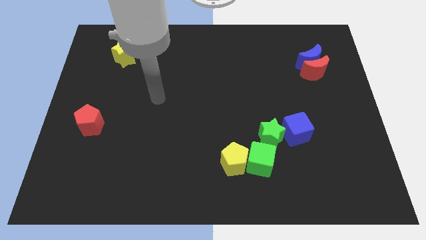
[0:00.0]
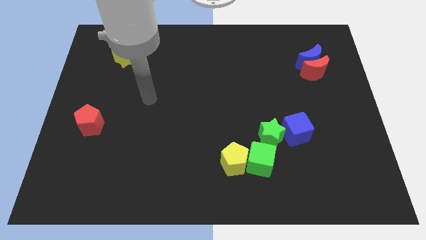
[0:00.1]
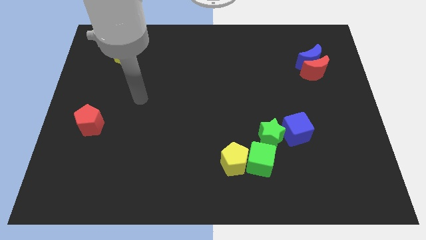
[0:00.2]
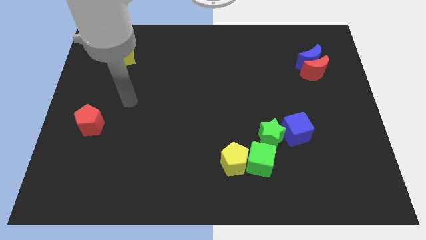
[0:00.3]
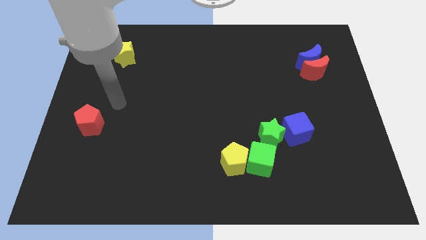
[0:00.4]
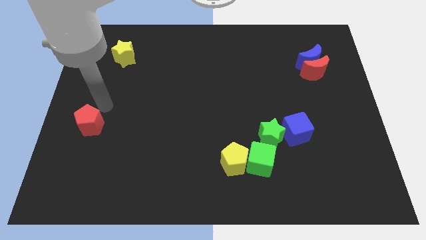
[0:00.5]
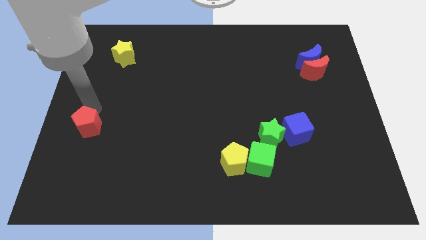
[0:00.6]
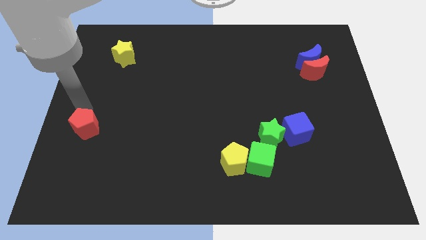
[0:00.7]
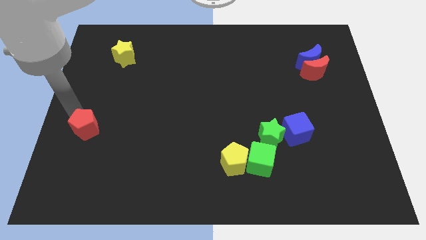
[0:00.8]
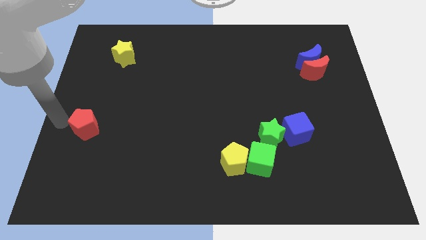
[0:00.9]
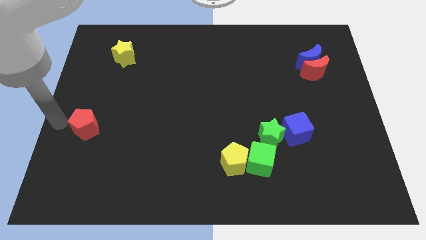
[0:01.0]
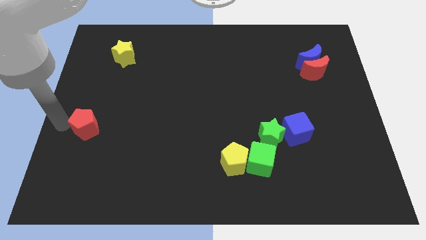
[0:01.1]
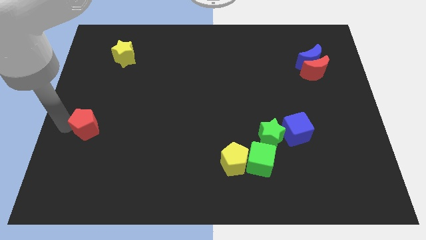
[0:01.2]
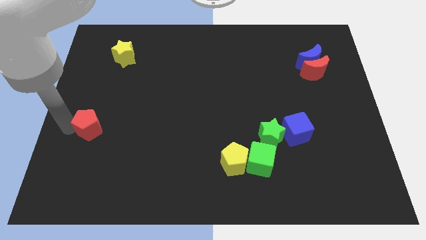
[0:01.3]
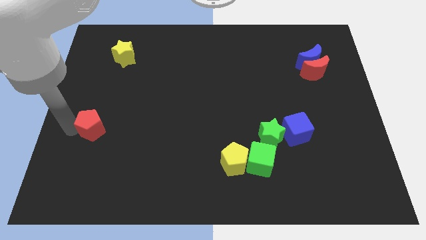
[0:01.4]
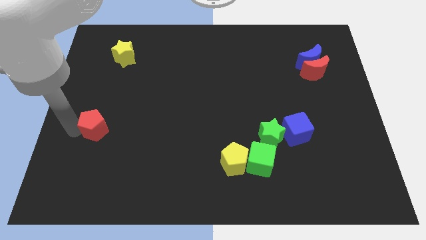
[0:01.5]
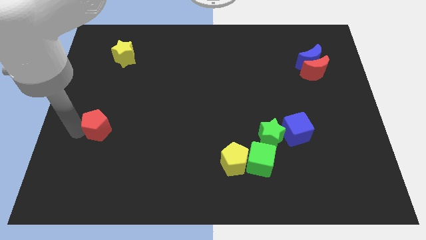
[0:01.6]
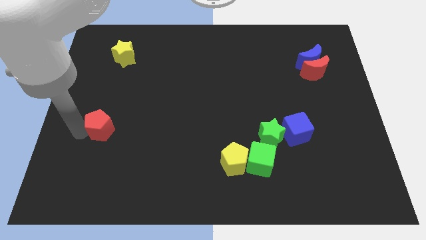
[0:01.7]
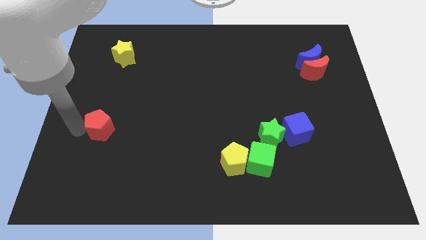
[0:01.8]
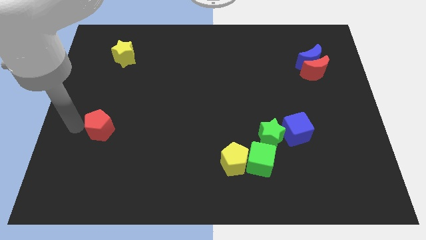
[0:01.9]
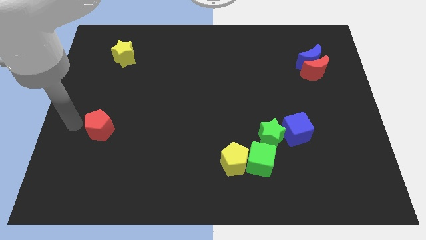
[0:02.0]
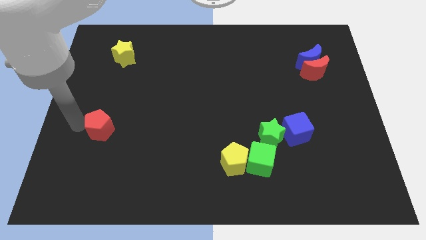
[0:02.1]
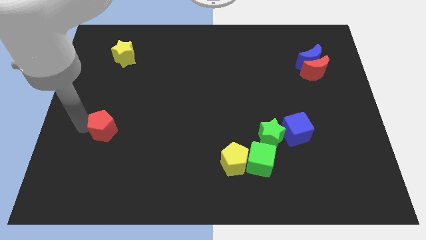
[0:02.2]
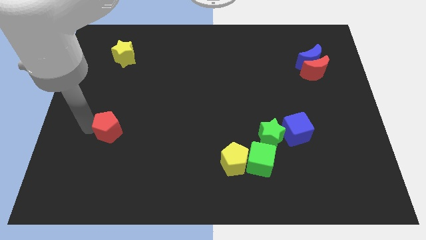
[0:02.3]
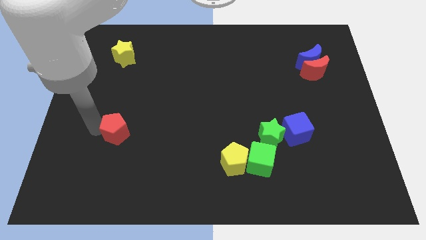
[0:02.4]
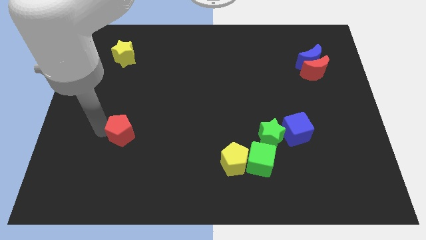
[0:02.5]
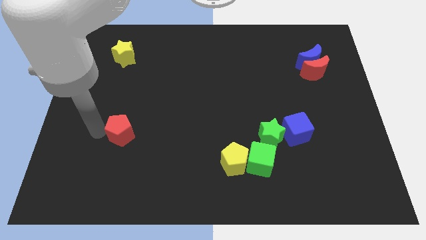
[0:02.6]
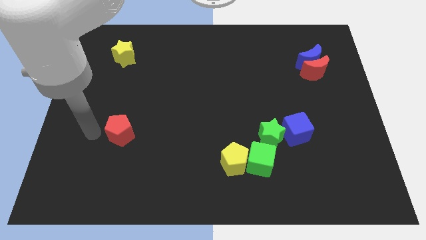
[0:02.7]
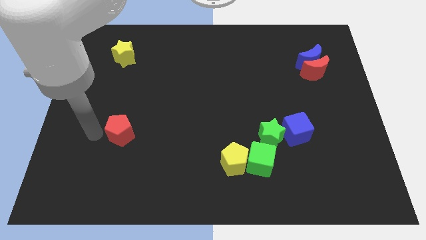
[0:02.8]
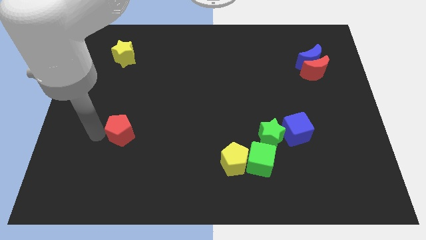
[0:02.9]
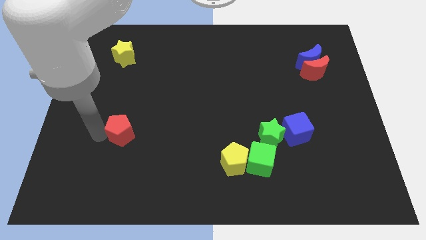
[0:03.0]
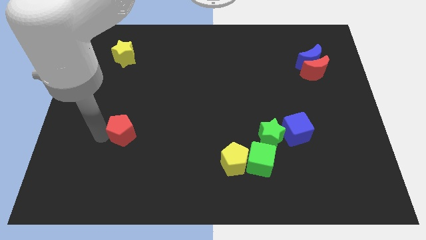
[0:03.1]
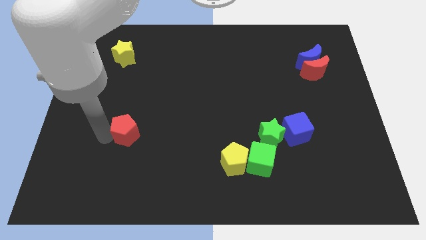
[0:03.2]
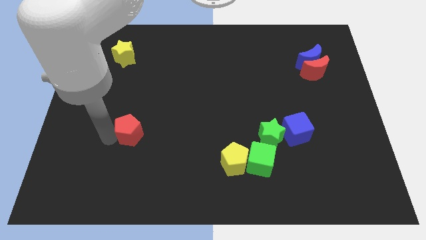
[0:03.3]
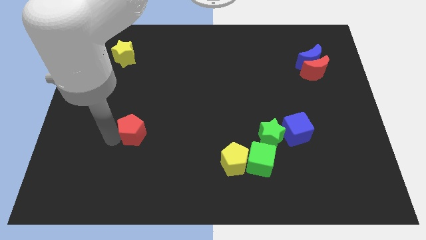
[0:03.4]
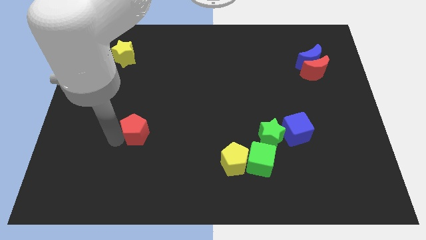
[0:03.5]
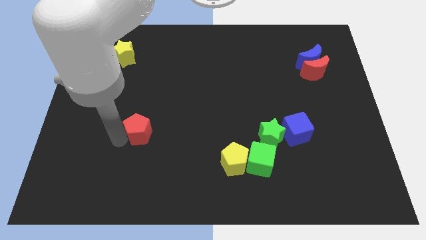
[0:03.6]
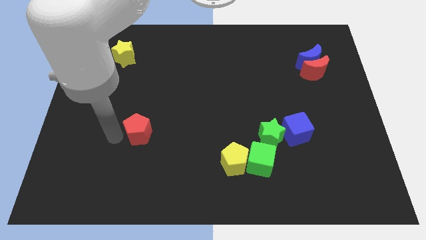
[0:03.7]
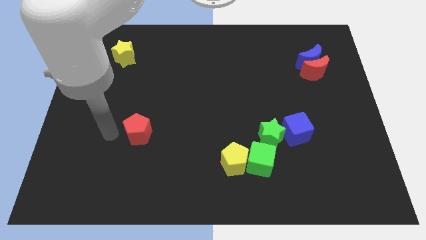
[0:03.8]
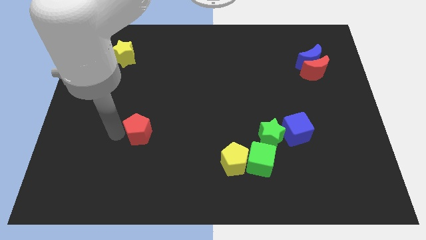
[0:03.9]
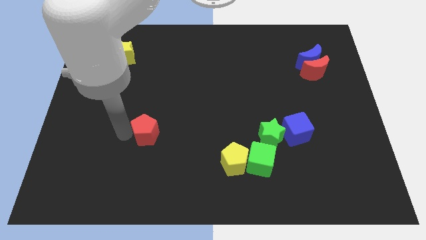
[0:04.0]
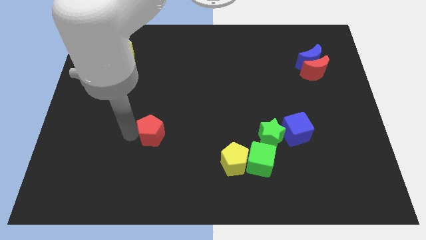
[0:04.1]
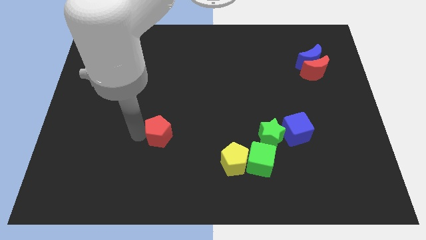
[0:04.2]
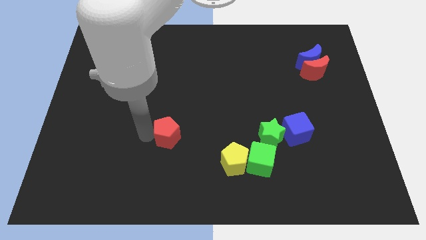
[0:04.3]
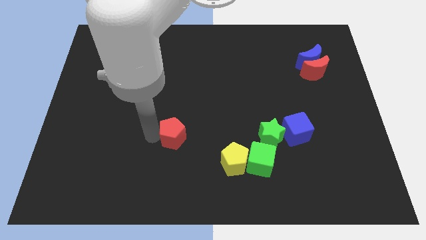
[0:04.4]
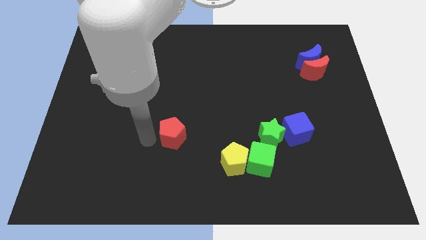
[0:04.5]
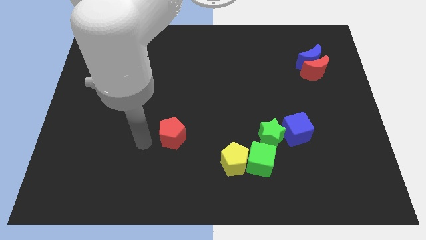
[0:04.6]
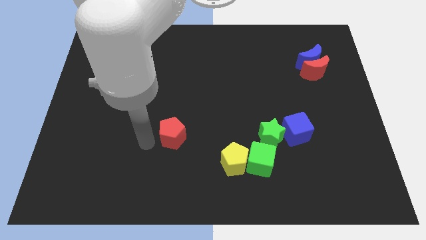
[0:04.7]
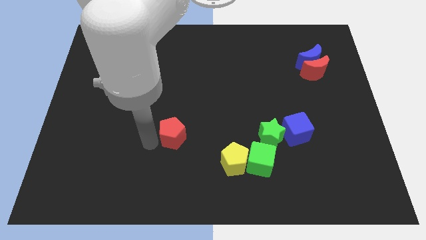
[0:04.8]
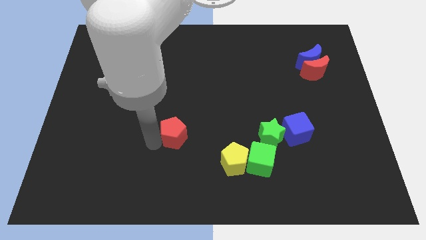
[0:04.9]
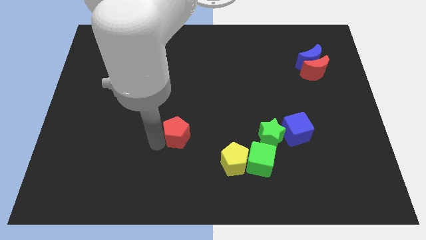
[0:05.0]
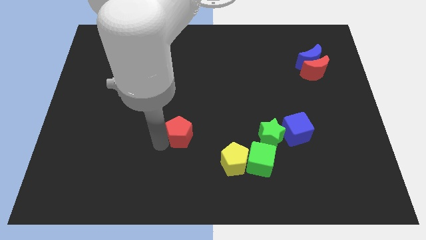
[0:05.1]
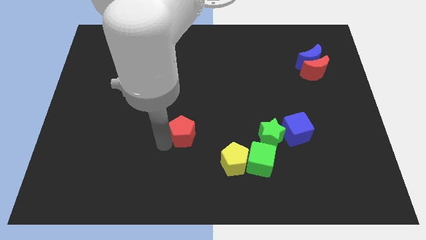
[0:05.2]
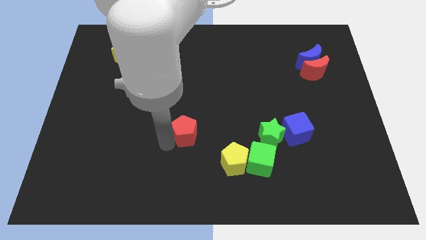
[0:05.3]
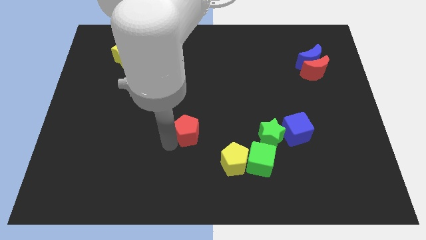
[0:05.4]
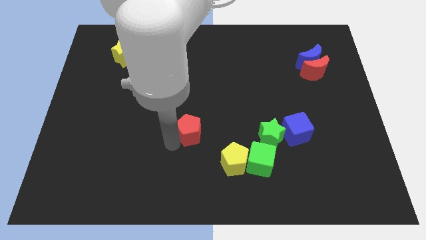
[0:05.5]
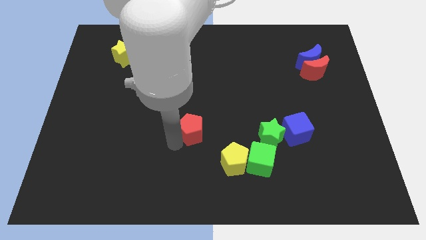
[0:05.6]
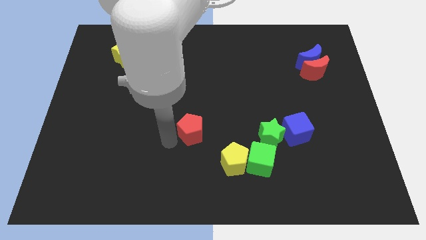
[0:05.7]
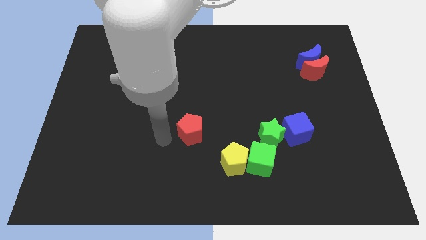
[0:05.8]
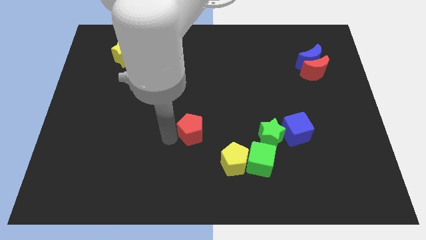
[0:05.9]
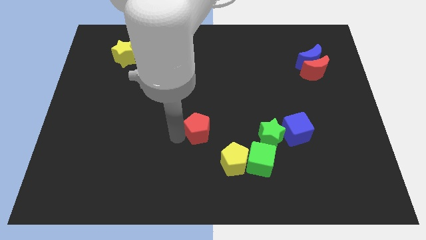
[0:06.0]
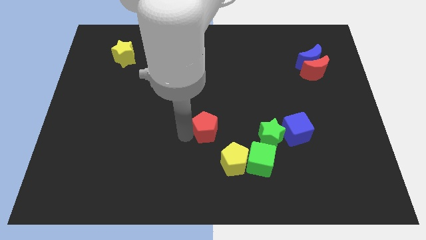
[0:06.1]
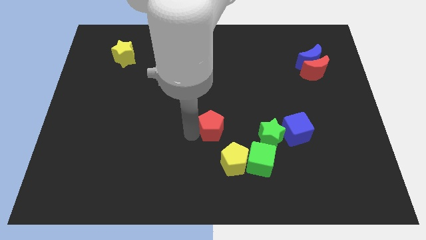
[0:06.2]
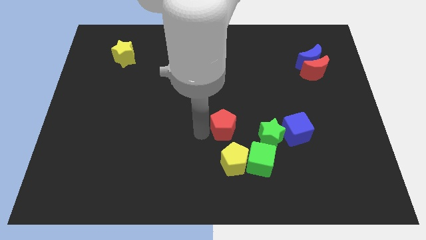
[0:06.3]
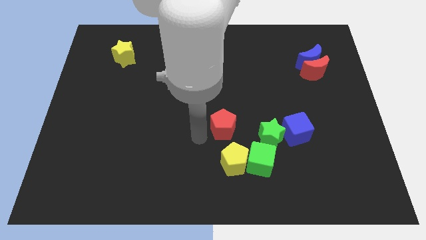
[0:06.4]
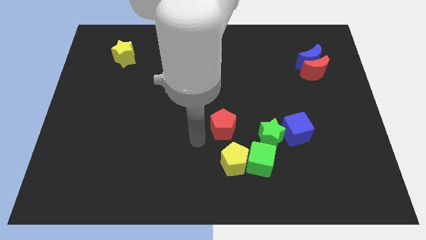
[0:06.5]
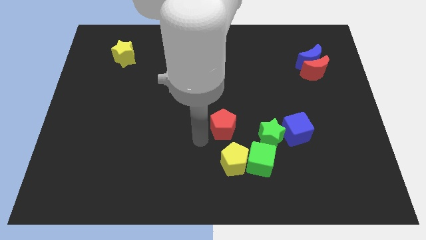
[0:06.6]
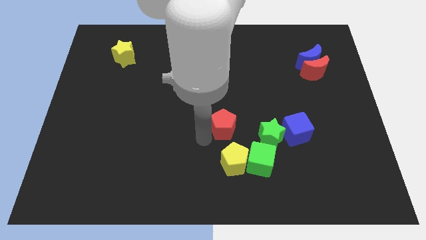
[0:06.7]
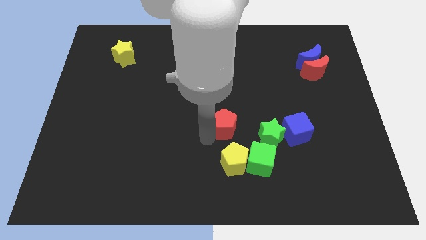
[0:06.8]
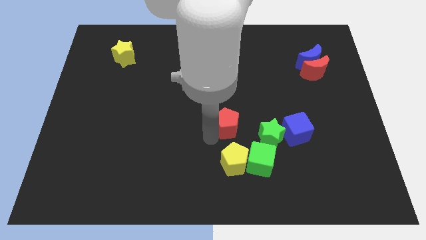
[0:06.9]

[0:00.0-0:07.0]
slide the red pentagon diagonally up and to the left of the green star
